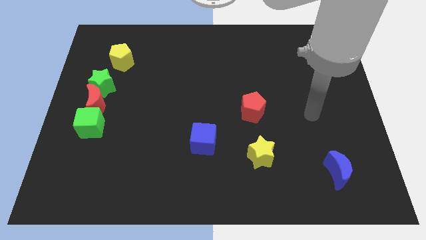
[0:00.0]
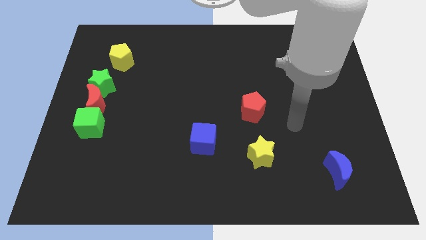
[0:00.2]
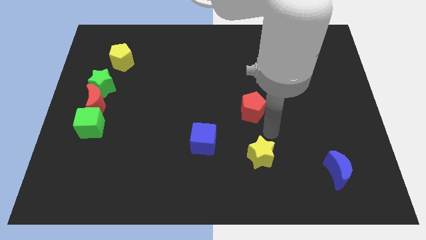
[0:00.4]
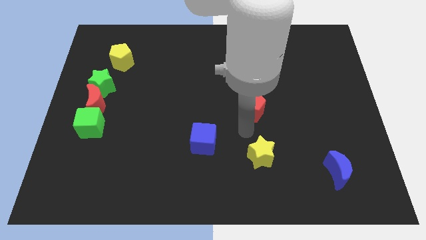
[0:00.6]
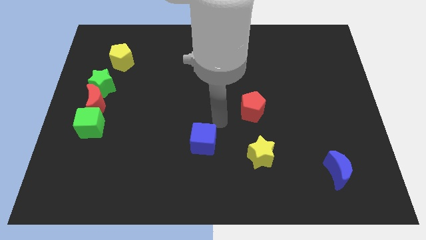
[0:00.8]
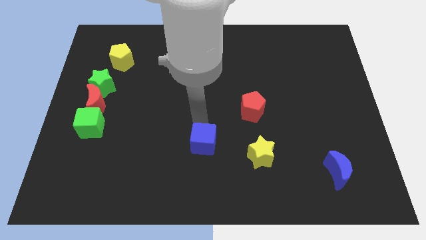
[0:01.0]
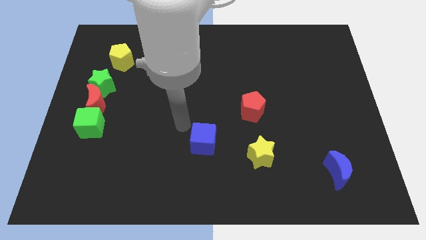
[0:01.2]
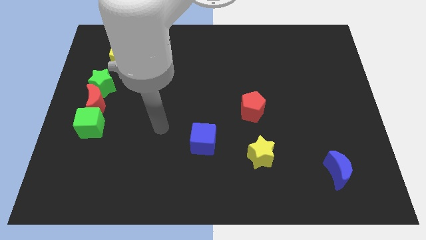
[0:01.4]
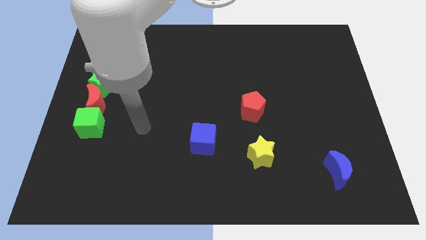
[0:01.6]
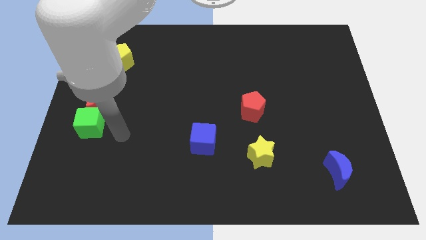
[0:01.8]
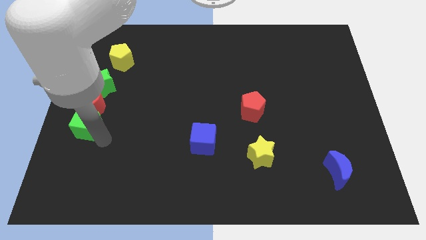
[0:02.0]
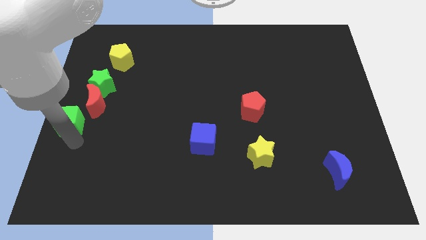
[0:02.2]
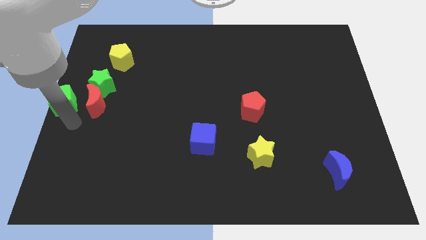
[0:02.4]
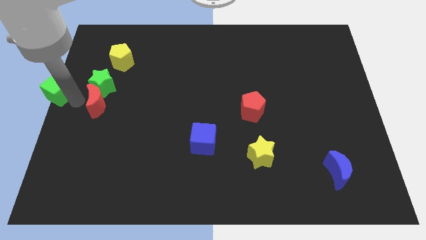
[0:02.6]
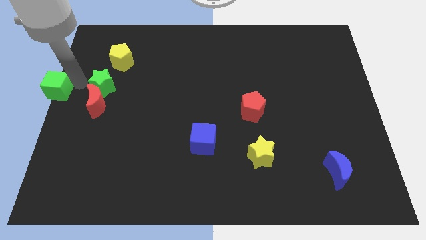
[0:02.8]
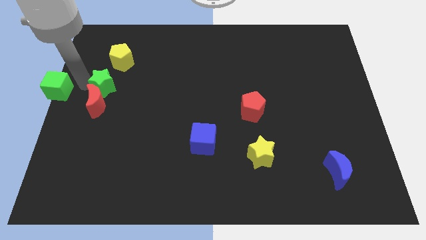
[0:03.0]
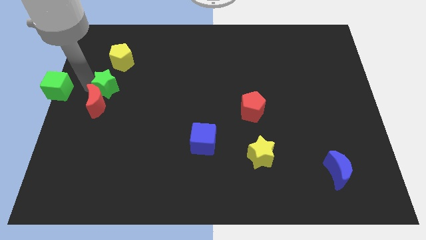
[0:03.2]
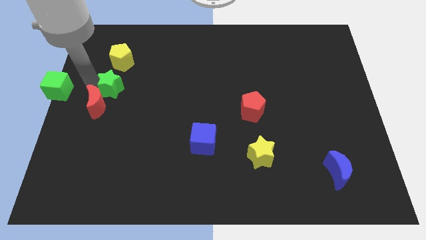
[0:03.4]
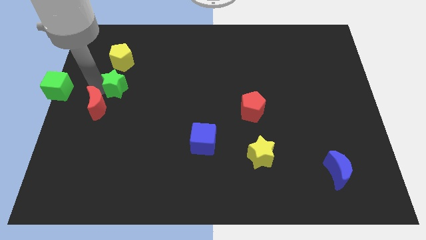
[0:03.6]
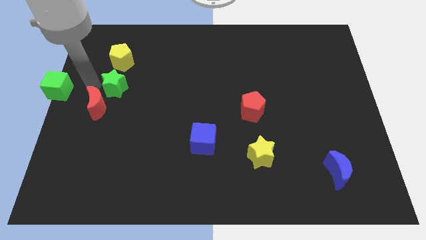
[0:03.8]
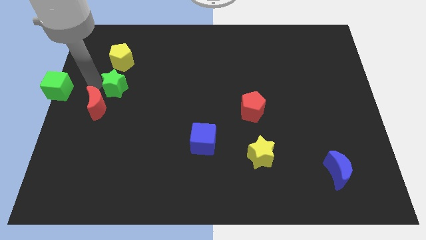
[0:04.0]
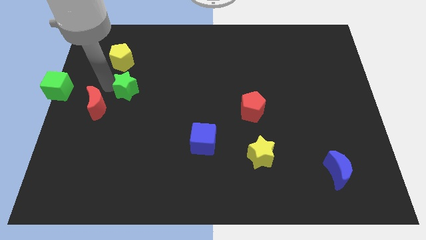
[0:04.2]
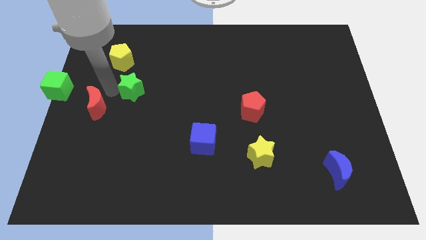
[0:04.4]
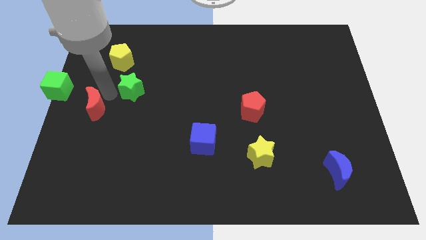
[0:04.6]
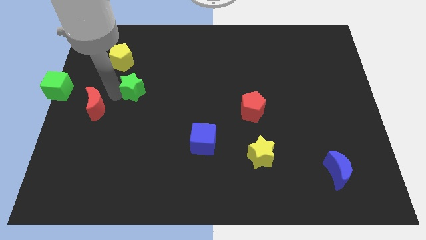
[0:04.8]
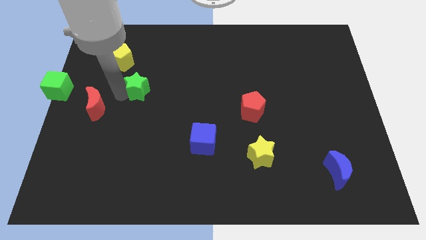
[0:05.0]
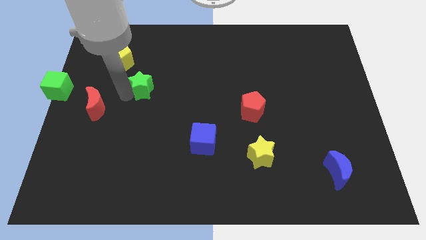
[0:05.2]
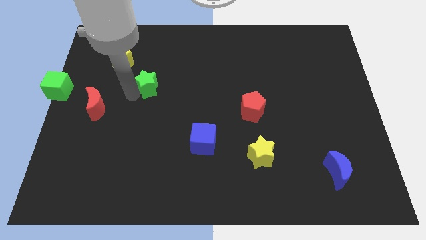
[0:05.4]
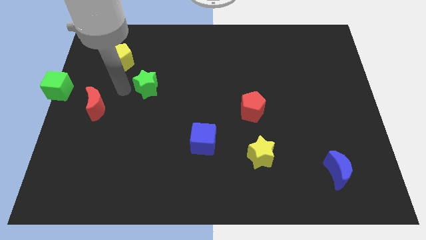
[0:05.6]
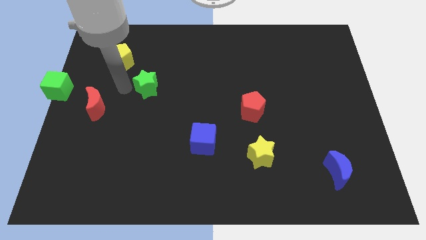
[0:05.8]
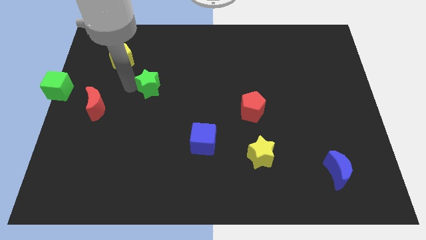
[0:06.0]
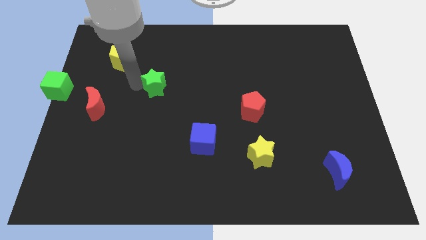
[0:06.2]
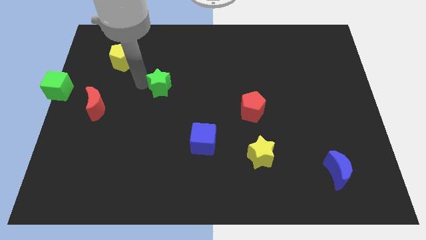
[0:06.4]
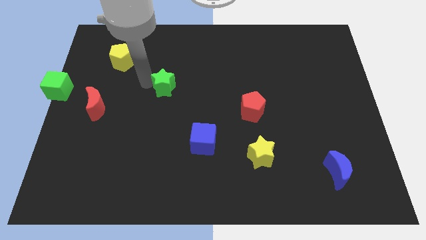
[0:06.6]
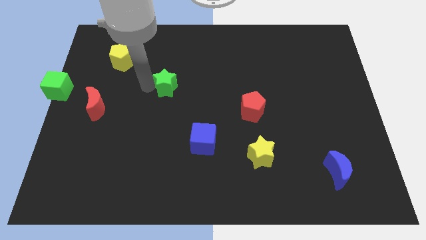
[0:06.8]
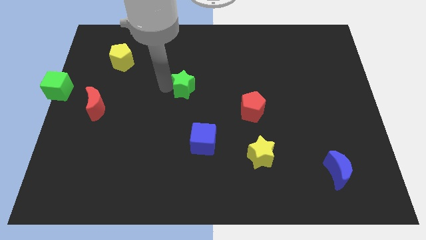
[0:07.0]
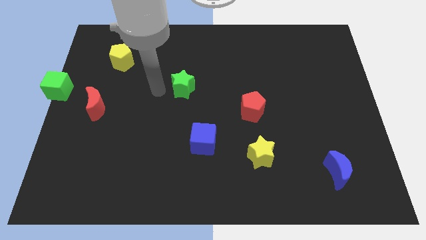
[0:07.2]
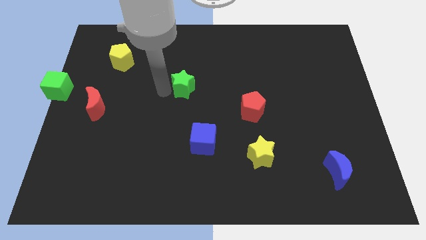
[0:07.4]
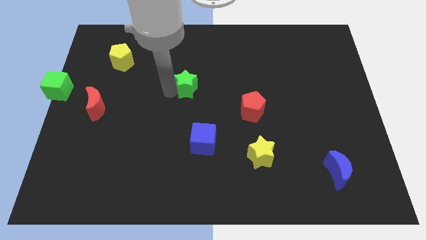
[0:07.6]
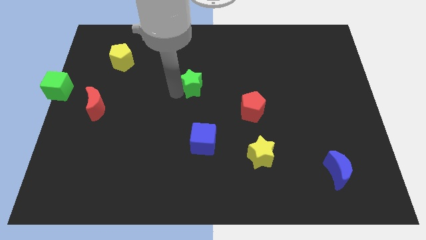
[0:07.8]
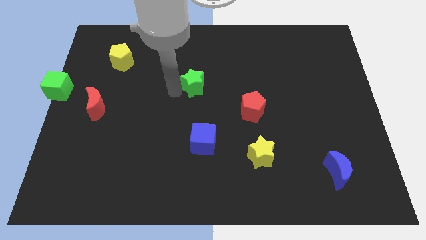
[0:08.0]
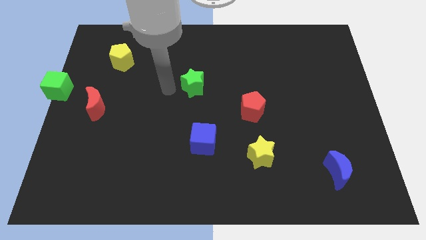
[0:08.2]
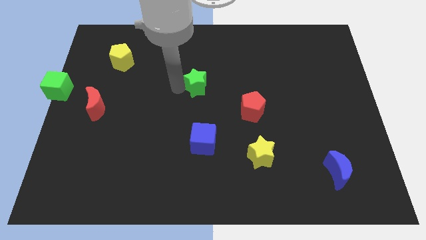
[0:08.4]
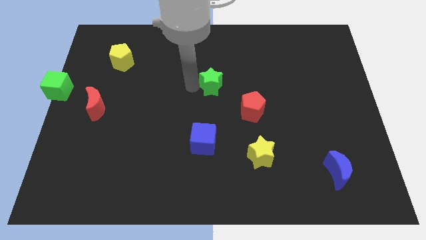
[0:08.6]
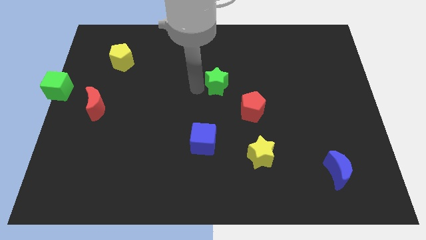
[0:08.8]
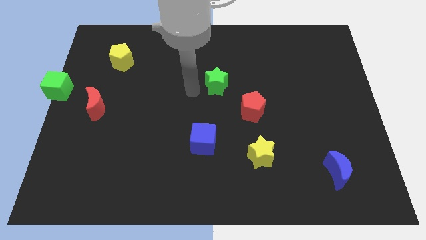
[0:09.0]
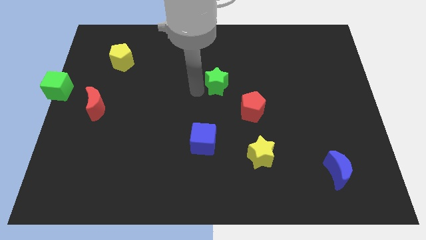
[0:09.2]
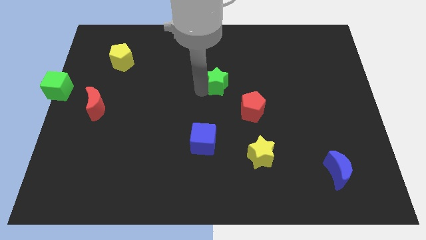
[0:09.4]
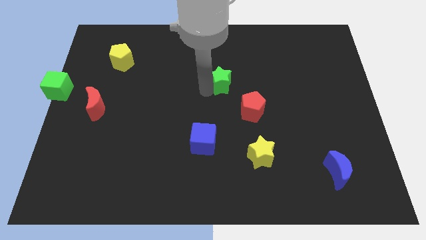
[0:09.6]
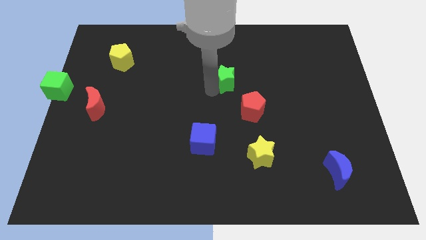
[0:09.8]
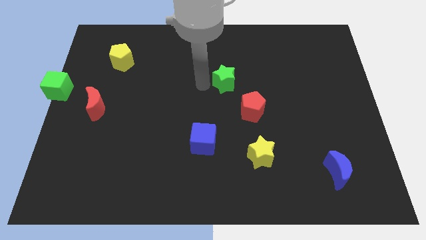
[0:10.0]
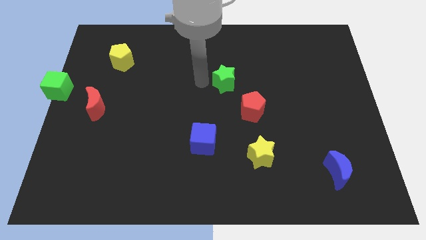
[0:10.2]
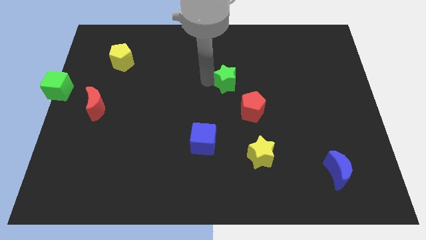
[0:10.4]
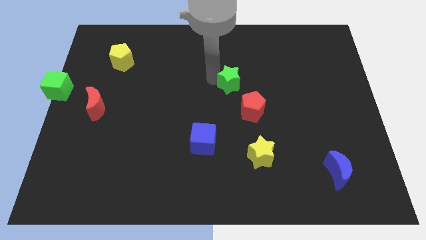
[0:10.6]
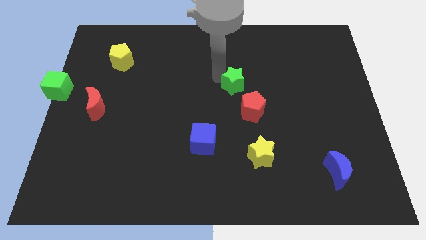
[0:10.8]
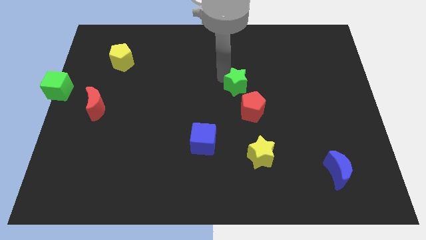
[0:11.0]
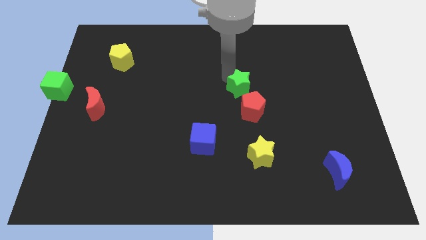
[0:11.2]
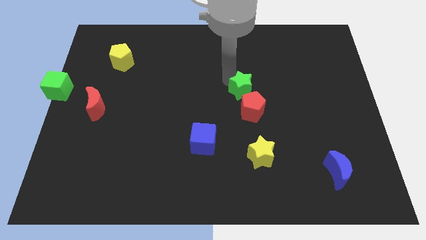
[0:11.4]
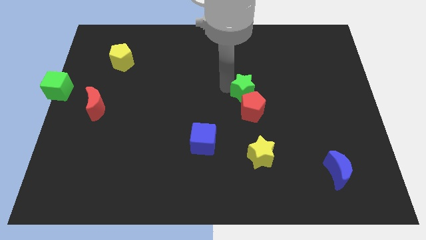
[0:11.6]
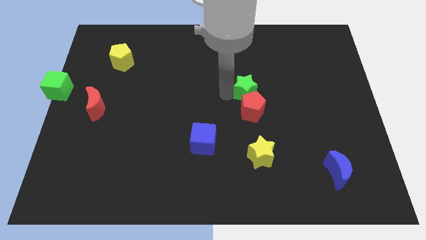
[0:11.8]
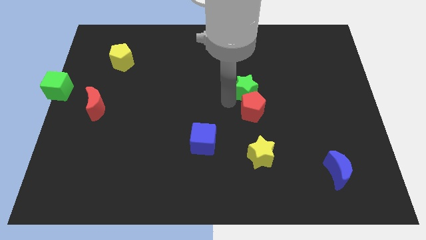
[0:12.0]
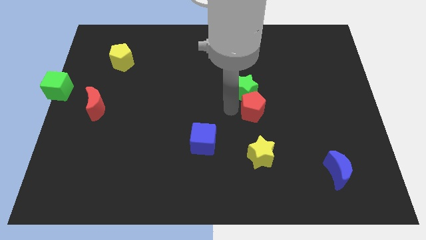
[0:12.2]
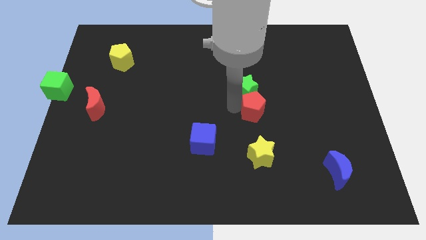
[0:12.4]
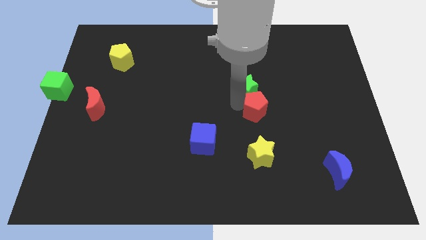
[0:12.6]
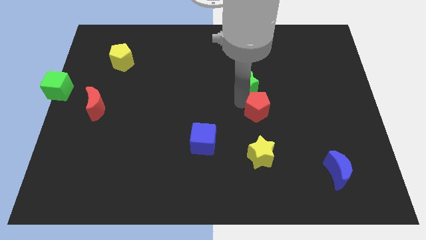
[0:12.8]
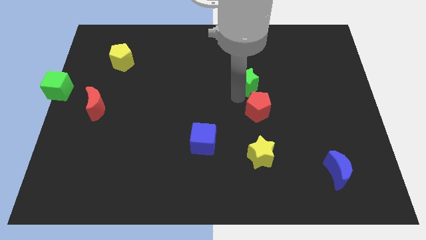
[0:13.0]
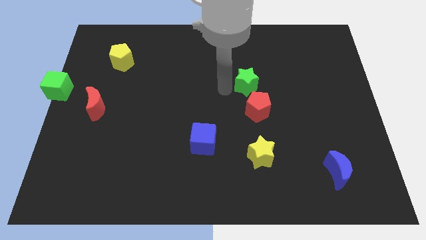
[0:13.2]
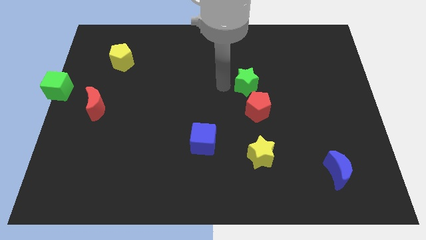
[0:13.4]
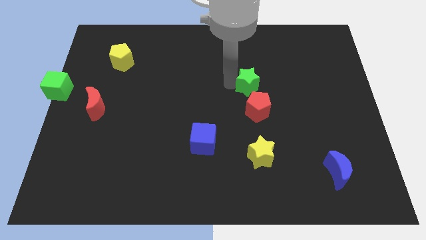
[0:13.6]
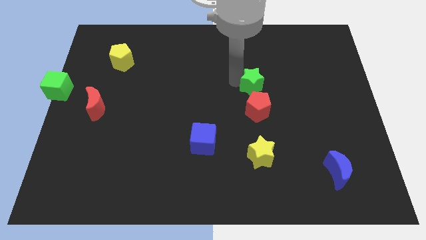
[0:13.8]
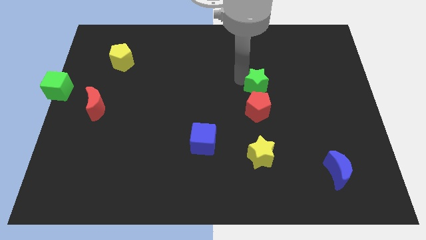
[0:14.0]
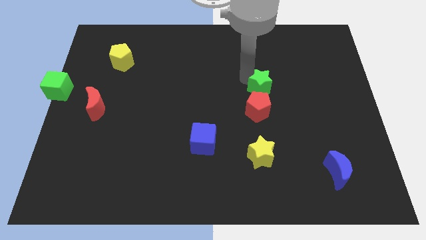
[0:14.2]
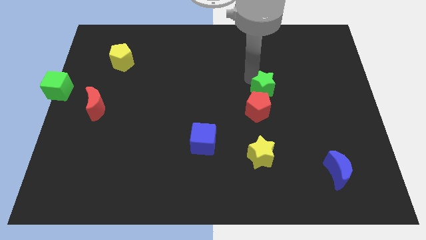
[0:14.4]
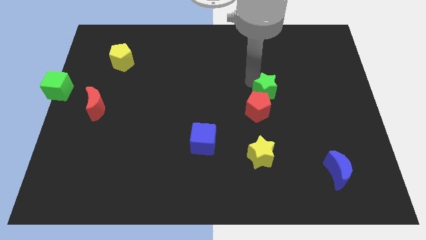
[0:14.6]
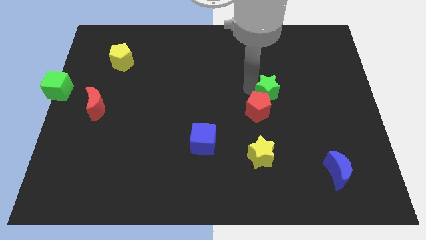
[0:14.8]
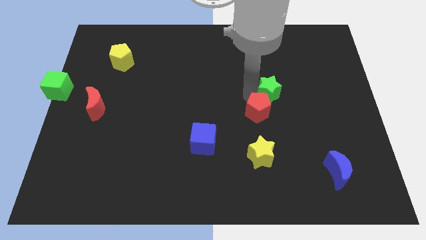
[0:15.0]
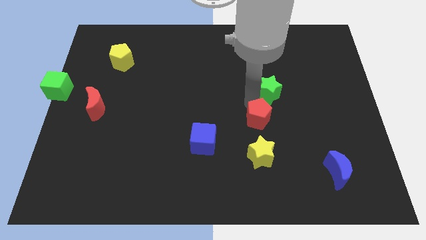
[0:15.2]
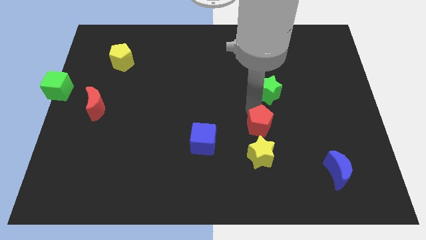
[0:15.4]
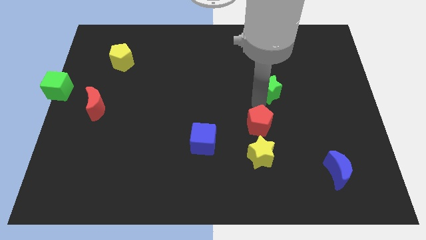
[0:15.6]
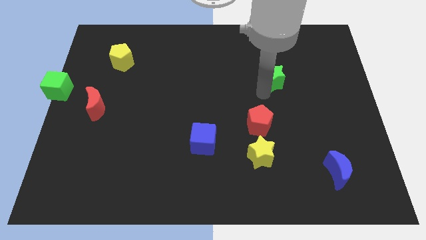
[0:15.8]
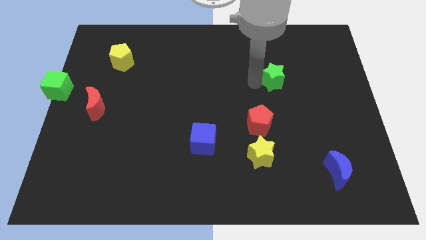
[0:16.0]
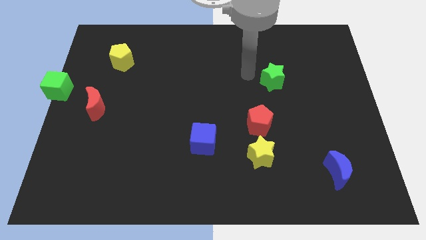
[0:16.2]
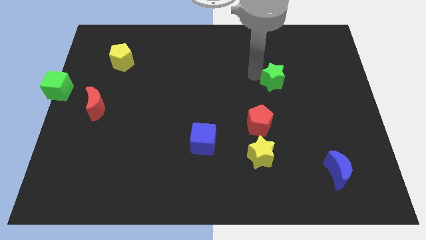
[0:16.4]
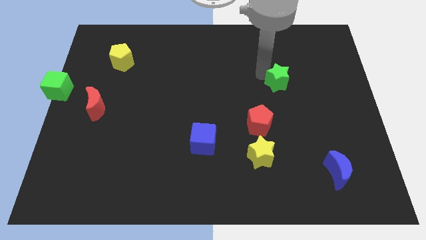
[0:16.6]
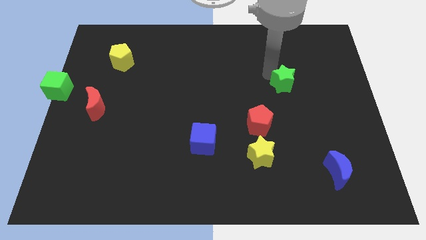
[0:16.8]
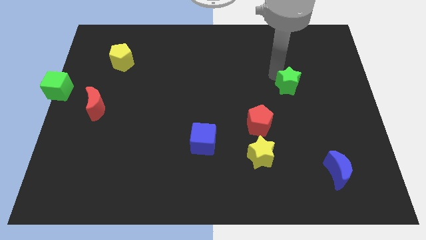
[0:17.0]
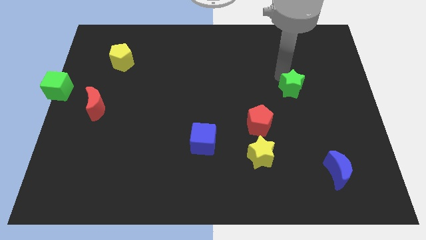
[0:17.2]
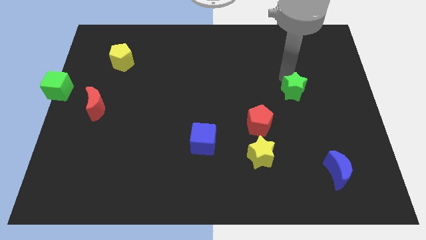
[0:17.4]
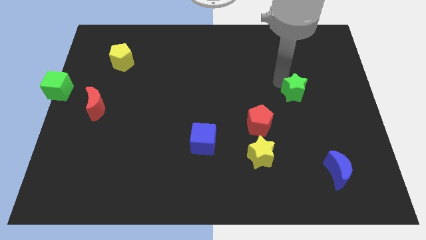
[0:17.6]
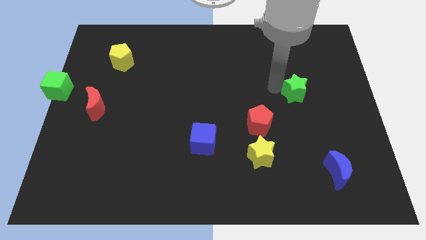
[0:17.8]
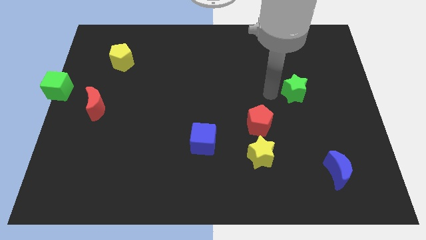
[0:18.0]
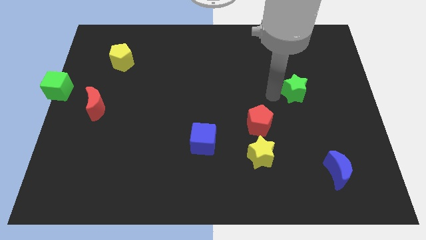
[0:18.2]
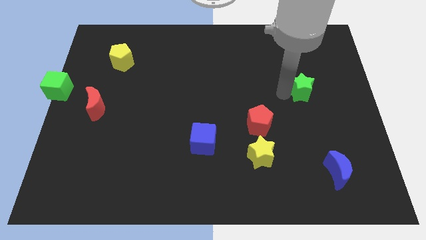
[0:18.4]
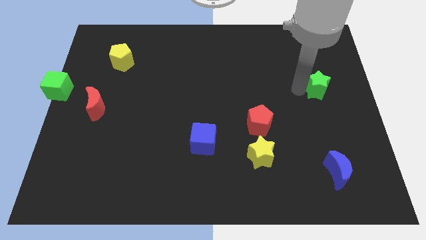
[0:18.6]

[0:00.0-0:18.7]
move the green star to the right side
